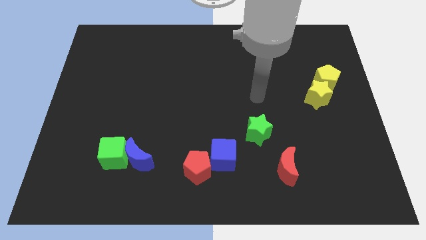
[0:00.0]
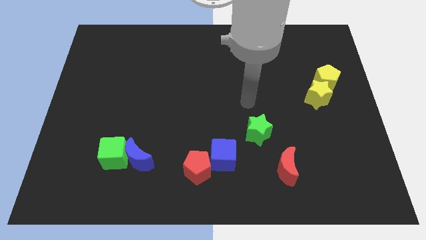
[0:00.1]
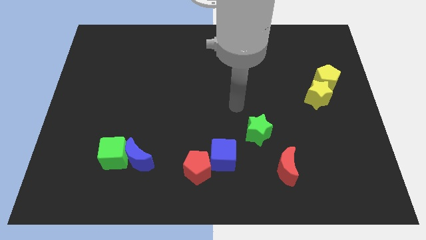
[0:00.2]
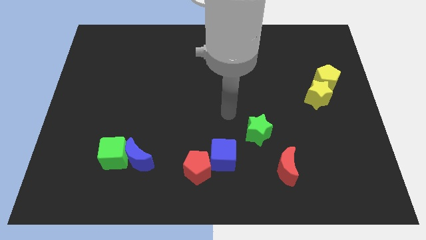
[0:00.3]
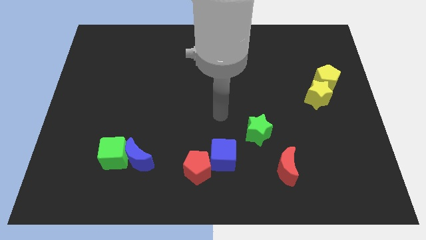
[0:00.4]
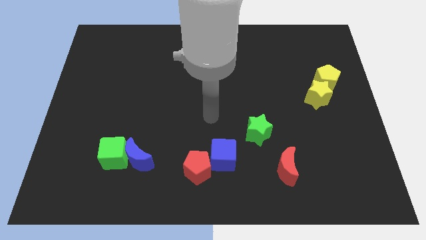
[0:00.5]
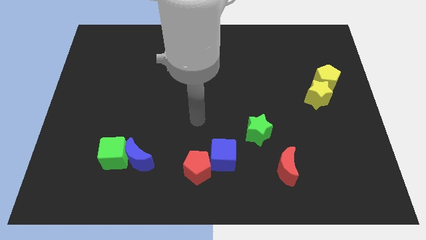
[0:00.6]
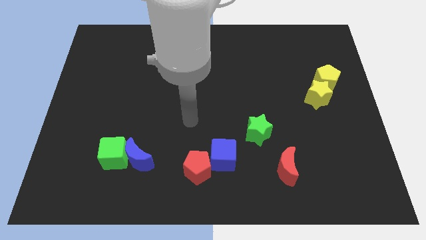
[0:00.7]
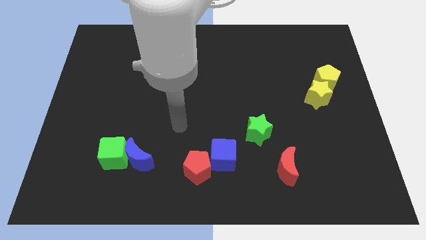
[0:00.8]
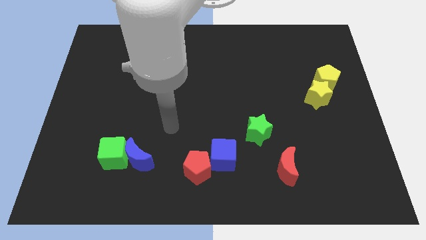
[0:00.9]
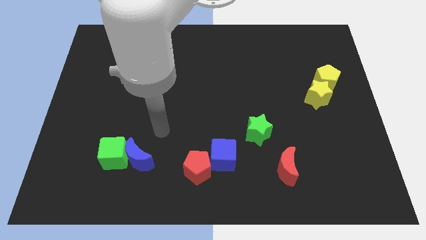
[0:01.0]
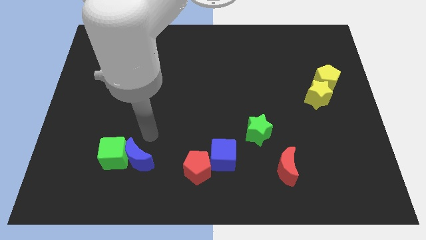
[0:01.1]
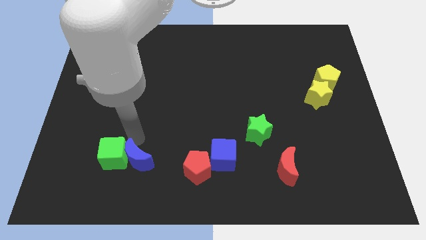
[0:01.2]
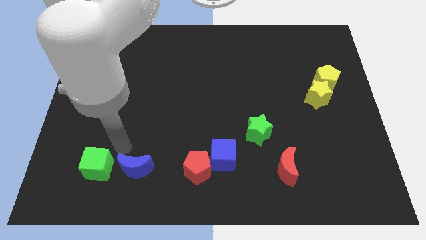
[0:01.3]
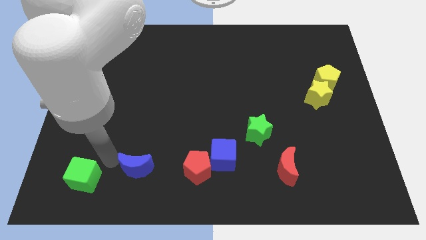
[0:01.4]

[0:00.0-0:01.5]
separate the blue moon from the green cube

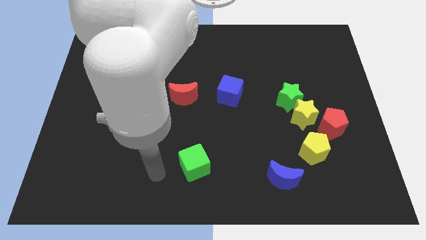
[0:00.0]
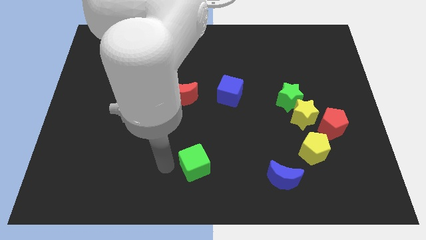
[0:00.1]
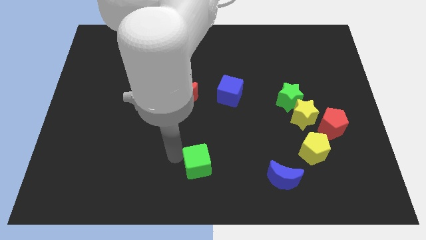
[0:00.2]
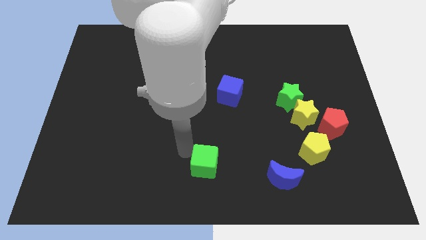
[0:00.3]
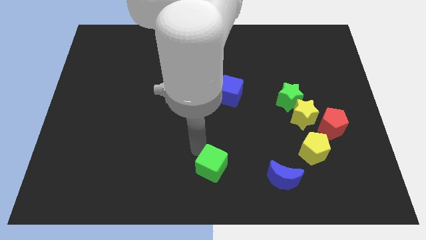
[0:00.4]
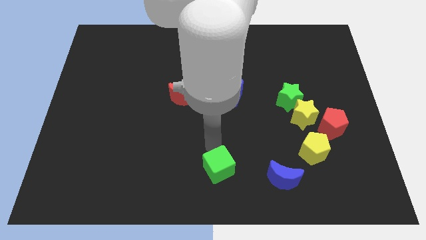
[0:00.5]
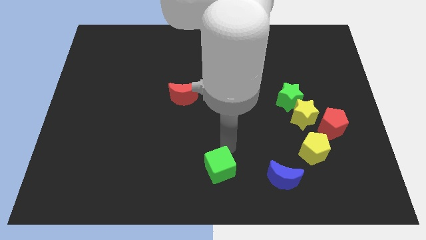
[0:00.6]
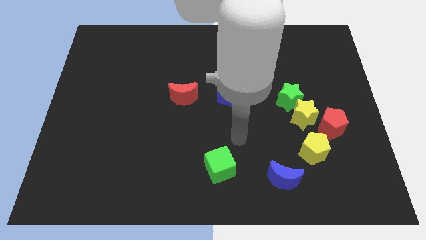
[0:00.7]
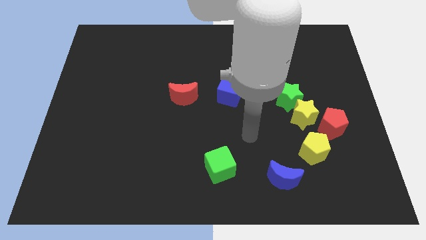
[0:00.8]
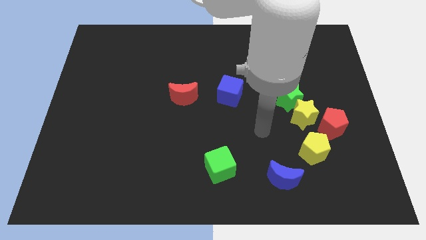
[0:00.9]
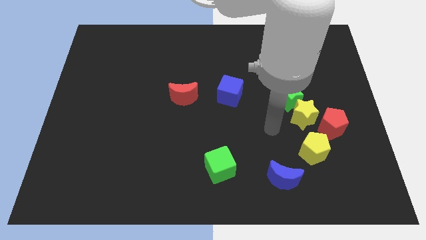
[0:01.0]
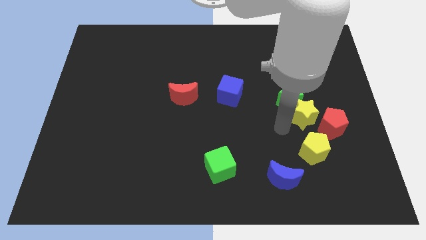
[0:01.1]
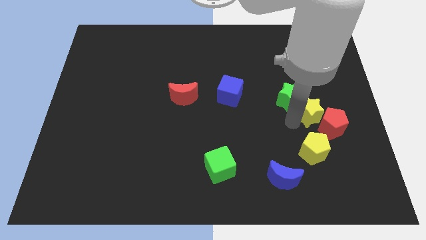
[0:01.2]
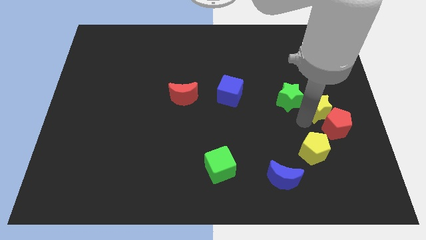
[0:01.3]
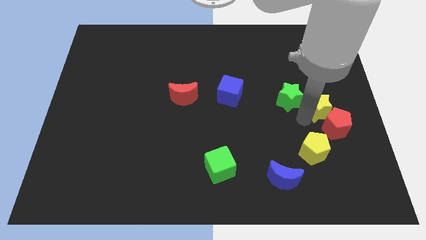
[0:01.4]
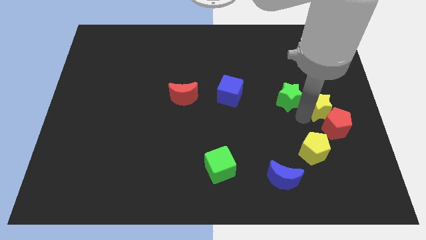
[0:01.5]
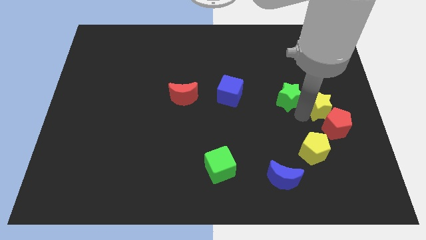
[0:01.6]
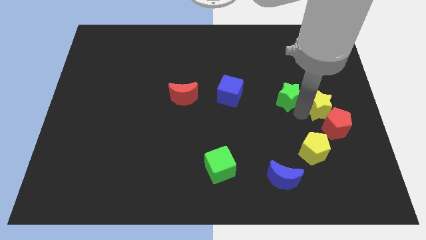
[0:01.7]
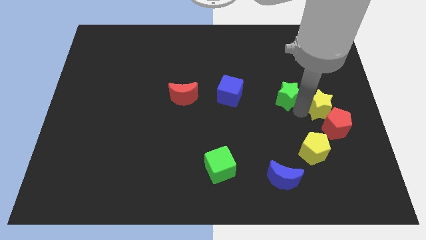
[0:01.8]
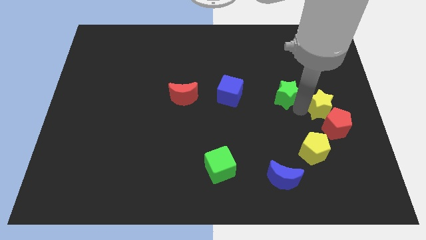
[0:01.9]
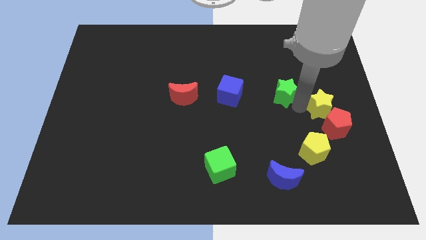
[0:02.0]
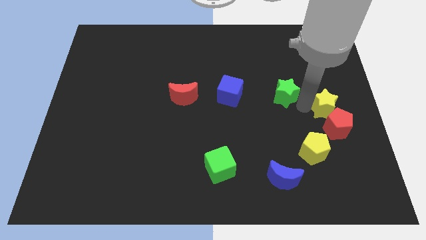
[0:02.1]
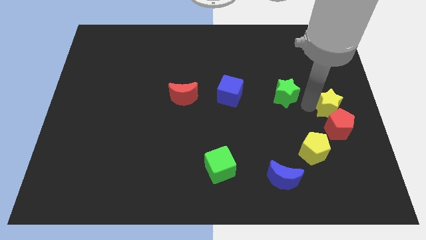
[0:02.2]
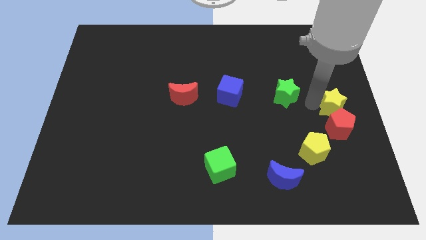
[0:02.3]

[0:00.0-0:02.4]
move the green star away from the yellow star

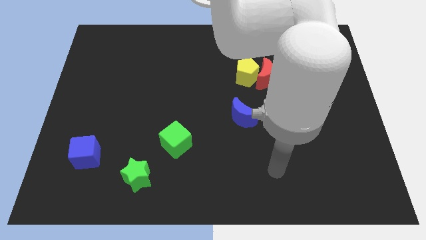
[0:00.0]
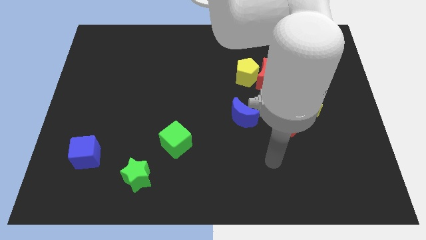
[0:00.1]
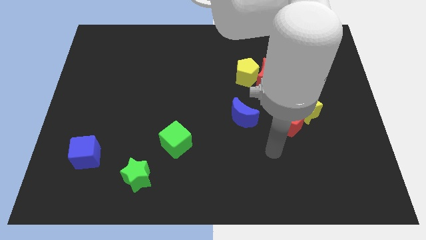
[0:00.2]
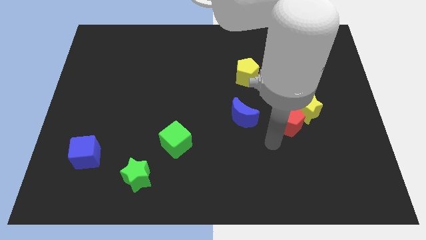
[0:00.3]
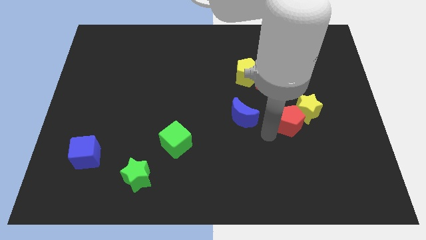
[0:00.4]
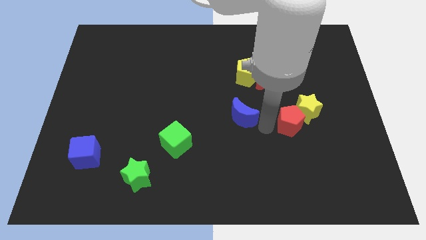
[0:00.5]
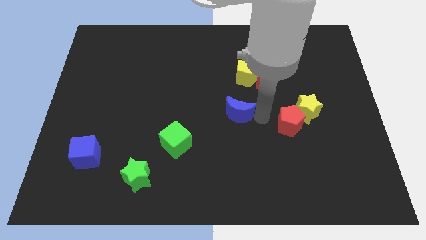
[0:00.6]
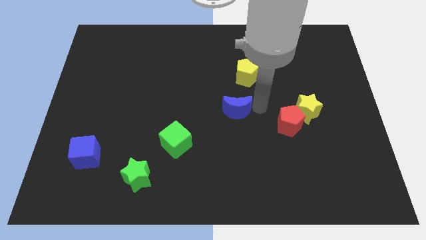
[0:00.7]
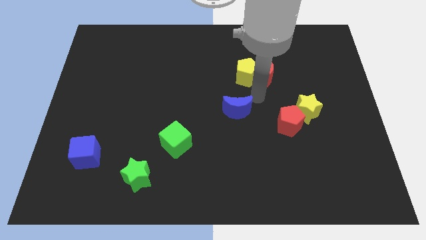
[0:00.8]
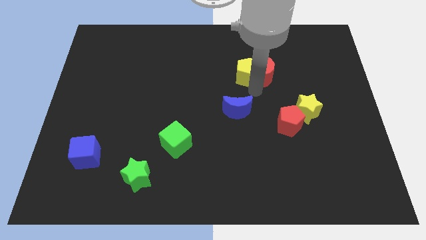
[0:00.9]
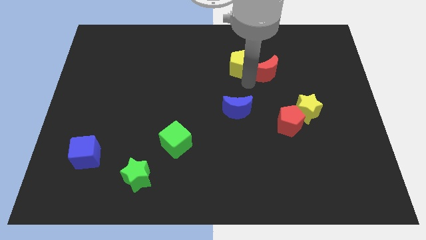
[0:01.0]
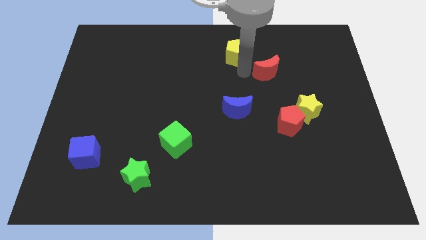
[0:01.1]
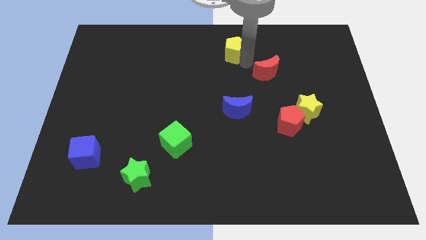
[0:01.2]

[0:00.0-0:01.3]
separate the red moon from the yellow pentagon

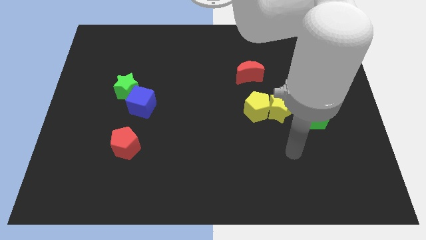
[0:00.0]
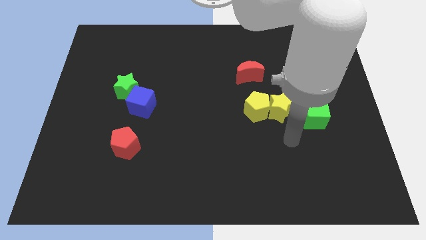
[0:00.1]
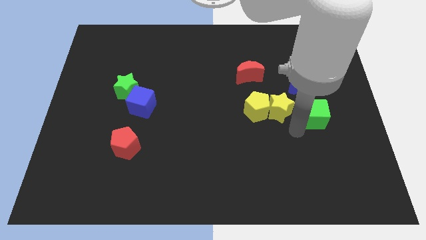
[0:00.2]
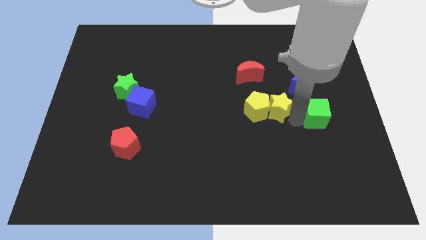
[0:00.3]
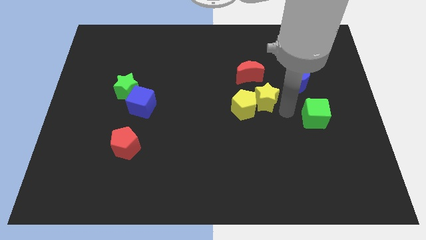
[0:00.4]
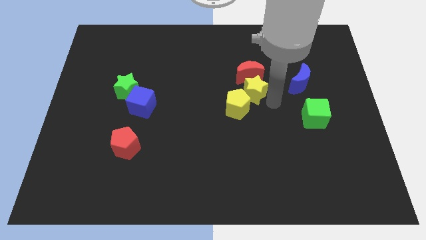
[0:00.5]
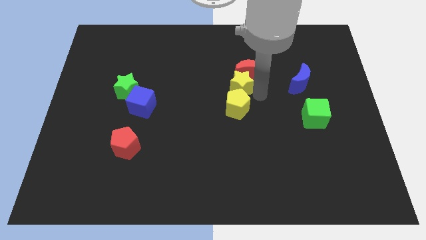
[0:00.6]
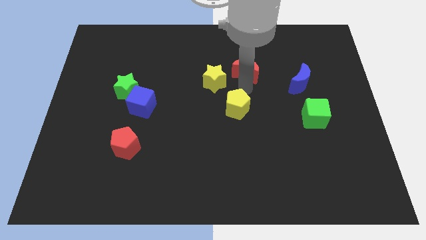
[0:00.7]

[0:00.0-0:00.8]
separate the yellow pentagon from the yellow star

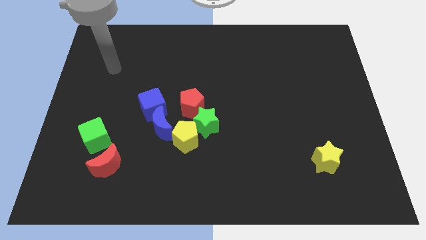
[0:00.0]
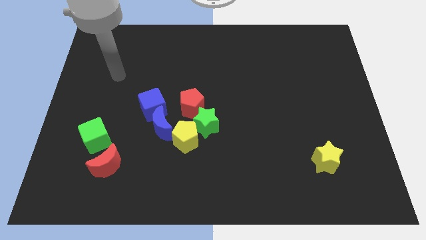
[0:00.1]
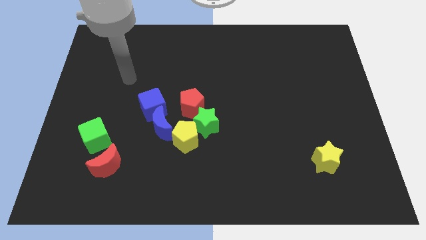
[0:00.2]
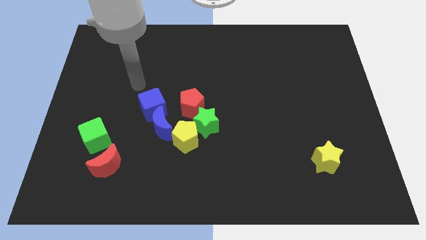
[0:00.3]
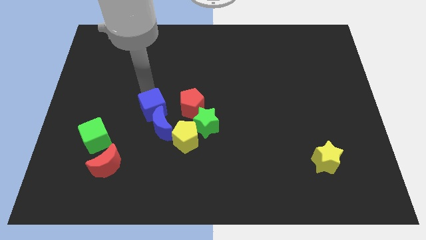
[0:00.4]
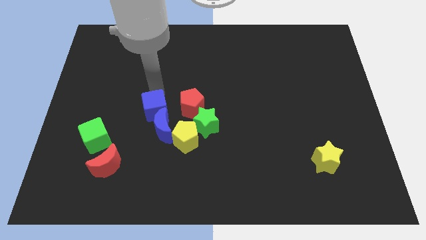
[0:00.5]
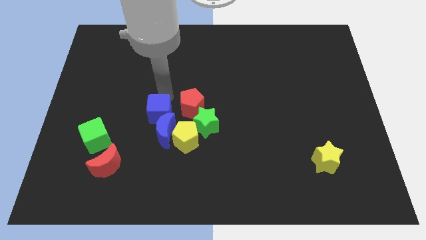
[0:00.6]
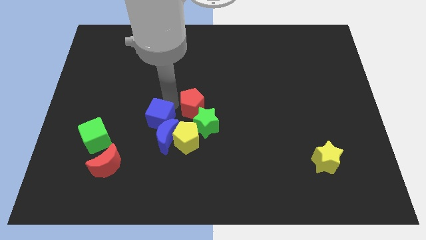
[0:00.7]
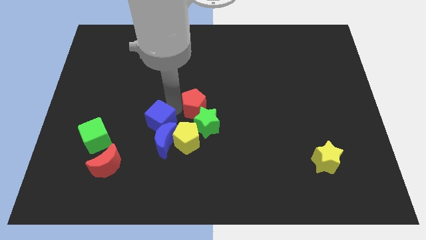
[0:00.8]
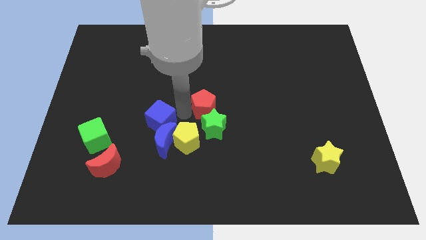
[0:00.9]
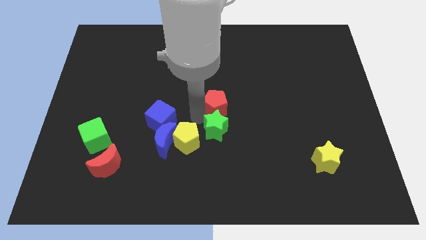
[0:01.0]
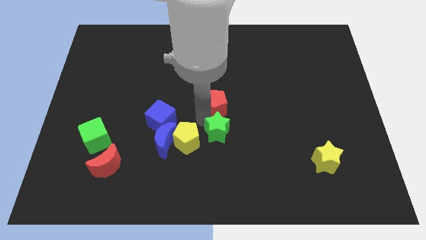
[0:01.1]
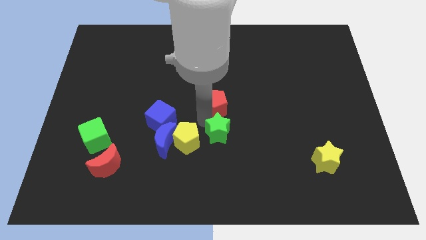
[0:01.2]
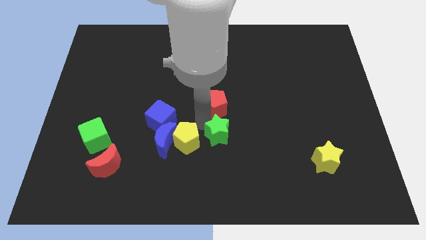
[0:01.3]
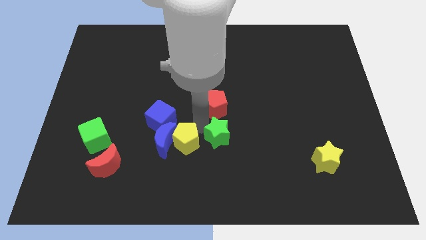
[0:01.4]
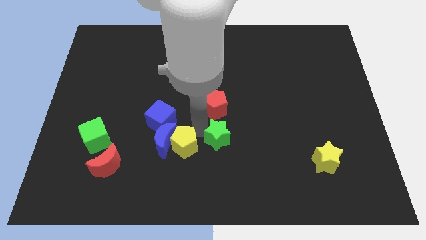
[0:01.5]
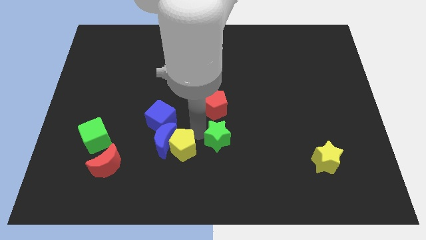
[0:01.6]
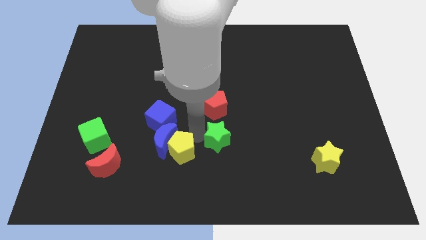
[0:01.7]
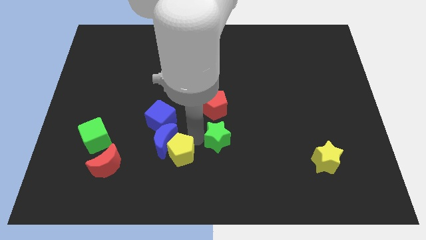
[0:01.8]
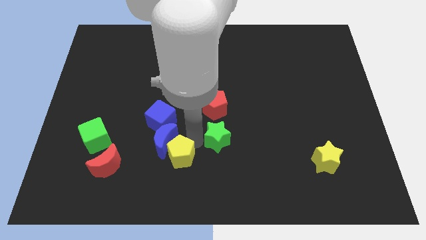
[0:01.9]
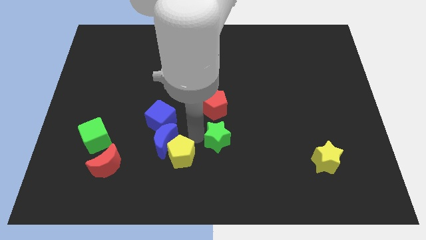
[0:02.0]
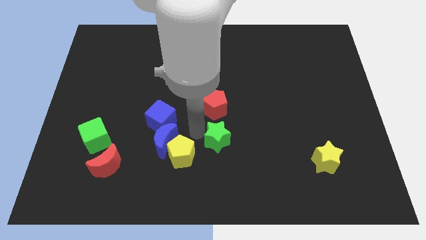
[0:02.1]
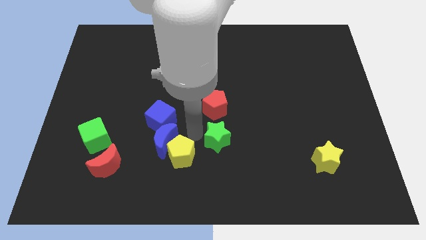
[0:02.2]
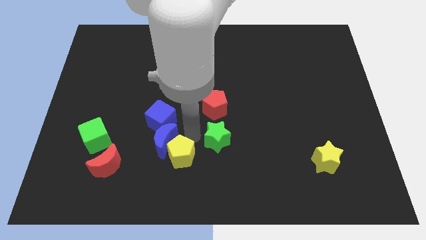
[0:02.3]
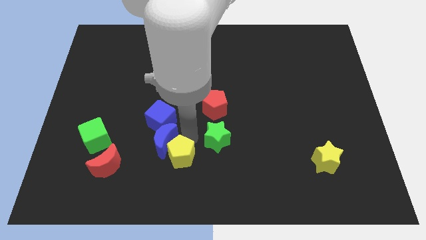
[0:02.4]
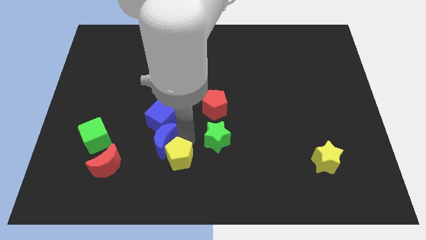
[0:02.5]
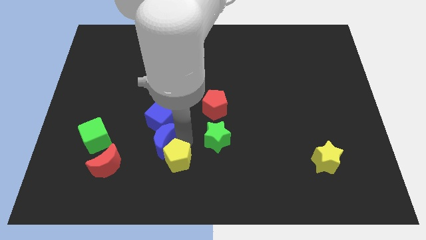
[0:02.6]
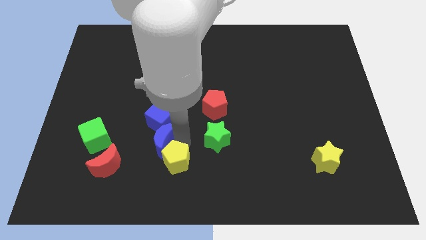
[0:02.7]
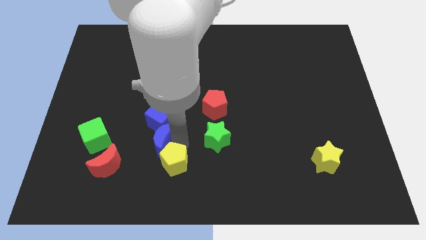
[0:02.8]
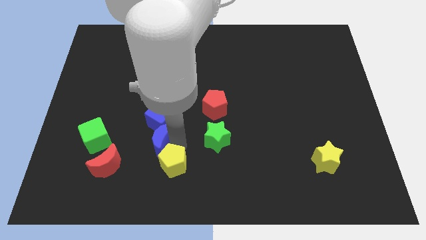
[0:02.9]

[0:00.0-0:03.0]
separate the yellow pentagon from the green star, blue moon, and red pentagon
